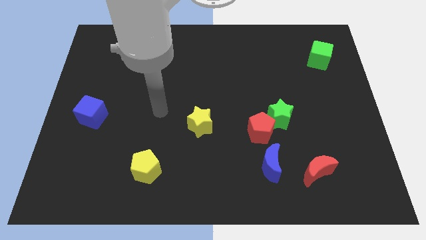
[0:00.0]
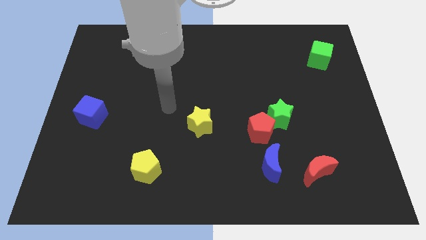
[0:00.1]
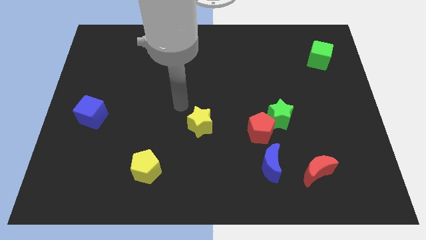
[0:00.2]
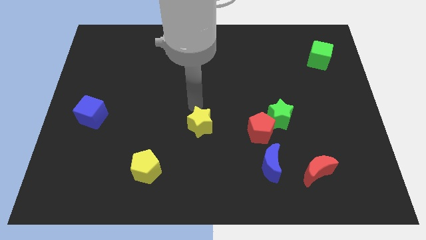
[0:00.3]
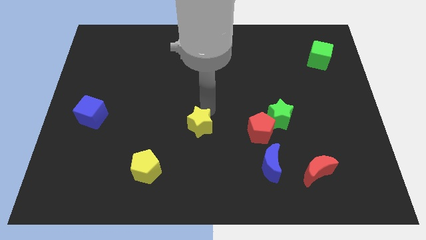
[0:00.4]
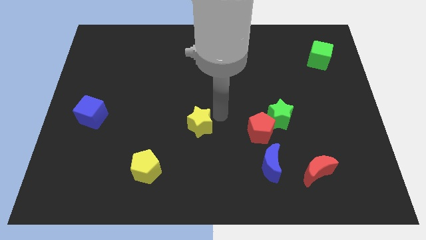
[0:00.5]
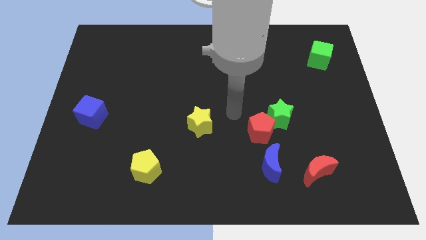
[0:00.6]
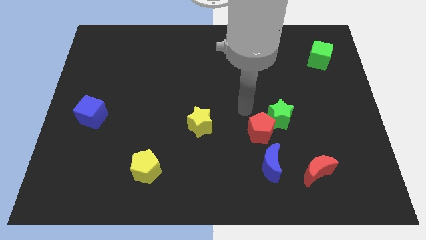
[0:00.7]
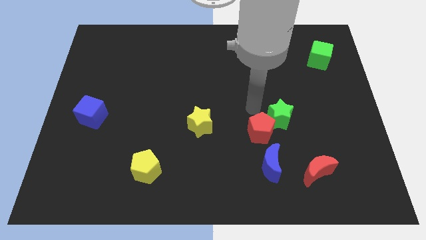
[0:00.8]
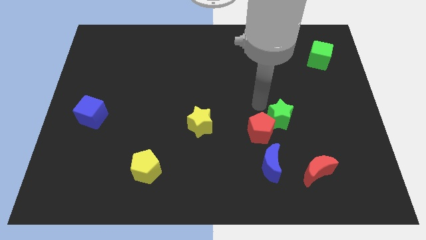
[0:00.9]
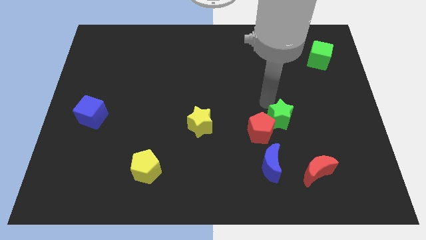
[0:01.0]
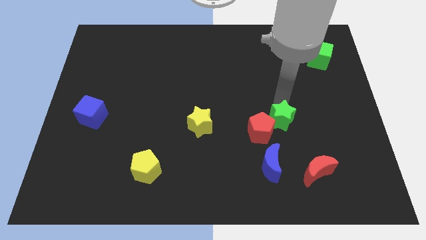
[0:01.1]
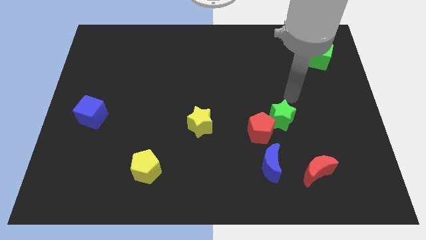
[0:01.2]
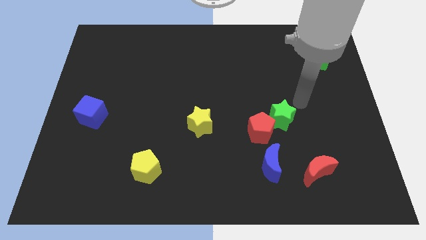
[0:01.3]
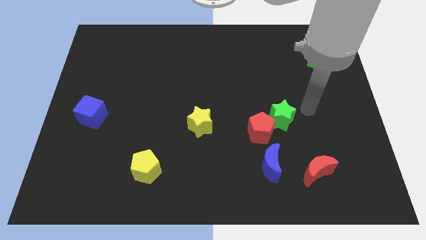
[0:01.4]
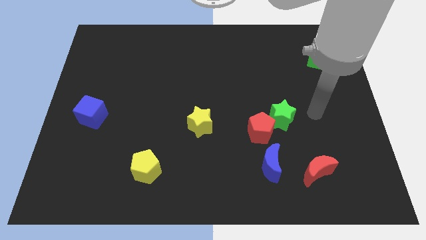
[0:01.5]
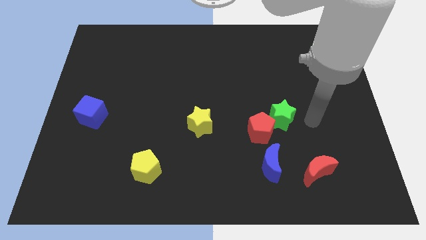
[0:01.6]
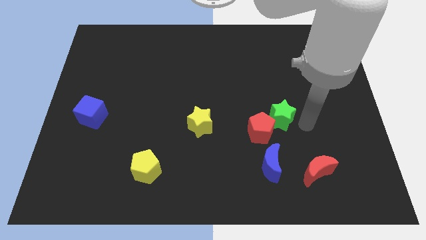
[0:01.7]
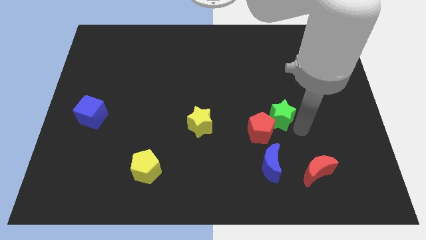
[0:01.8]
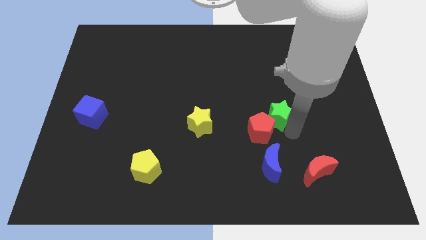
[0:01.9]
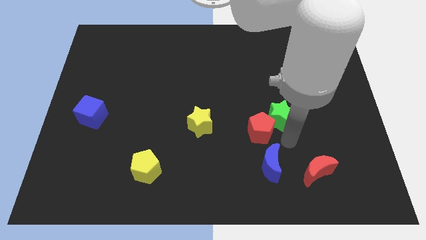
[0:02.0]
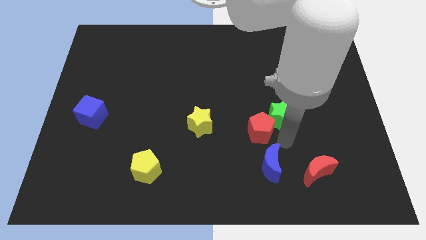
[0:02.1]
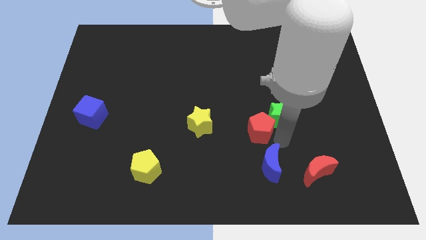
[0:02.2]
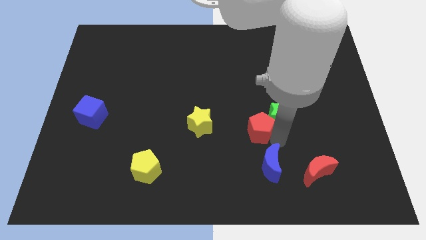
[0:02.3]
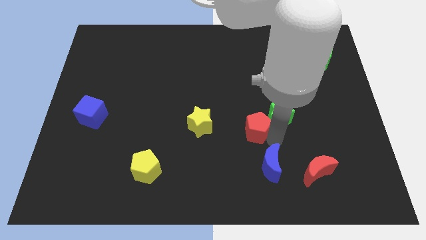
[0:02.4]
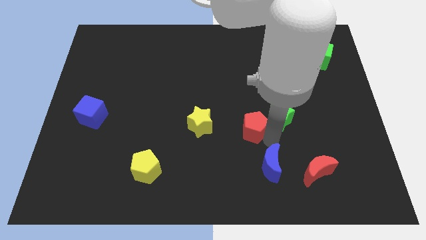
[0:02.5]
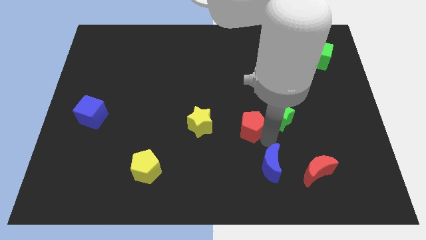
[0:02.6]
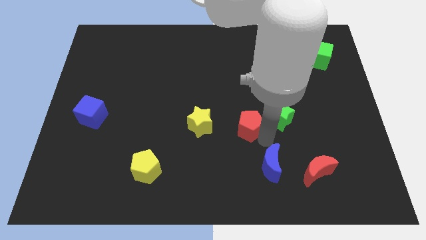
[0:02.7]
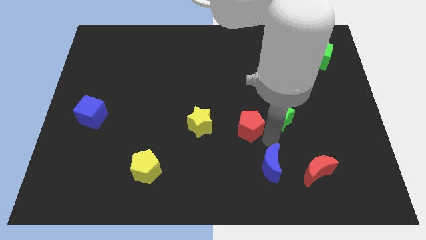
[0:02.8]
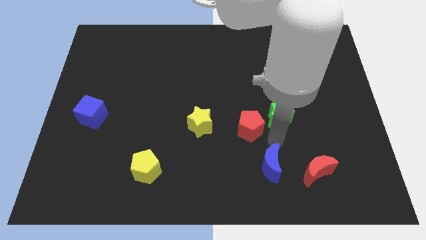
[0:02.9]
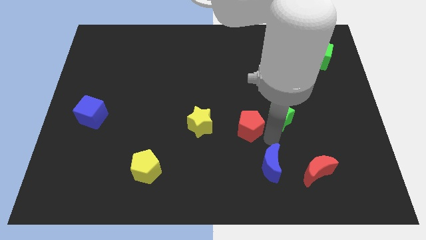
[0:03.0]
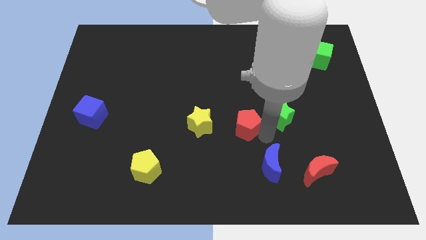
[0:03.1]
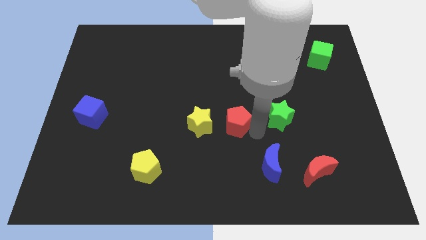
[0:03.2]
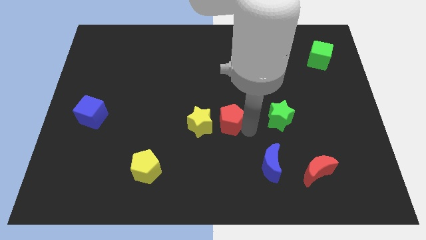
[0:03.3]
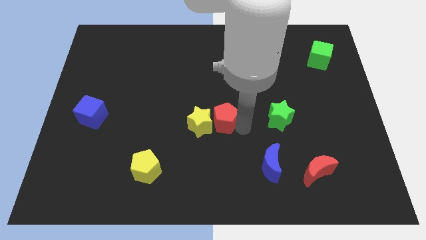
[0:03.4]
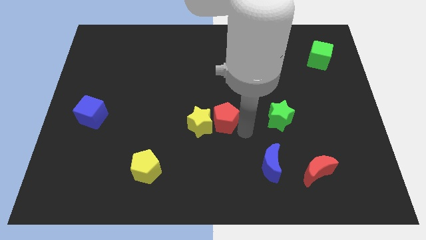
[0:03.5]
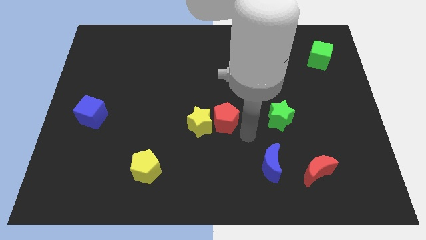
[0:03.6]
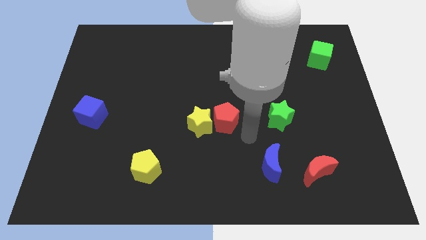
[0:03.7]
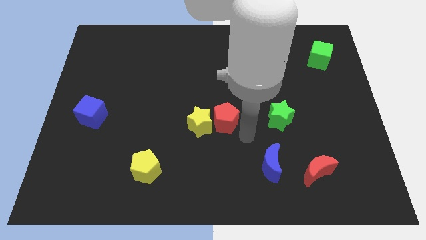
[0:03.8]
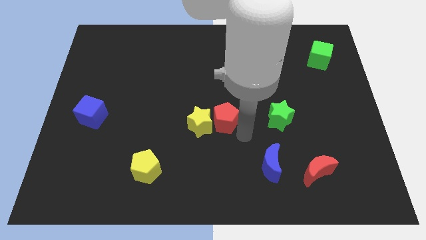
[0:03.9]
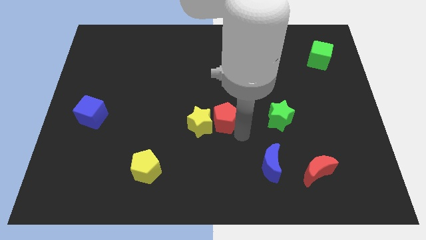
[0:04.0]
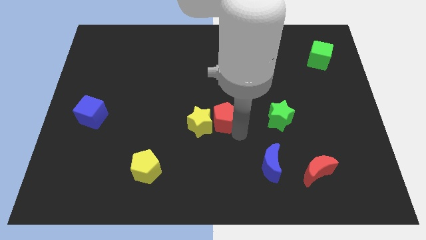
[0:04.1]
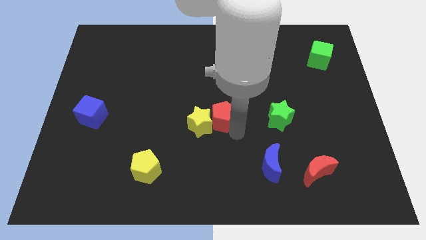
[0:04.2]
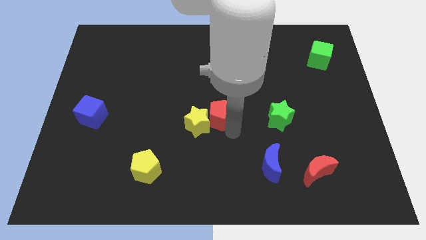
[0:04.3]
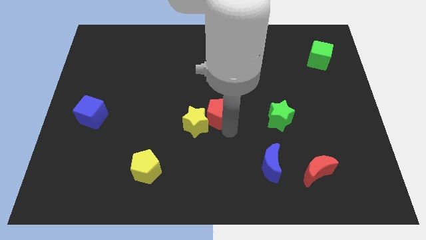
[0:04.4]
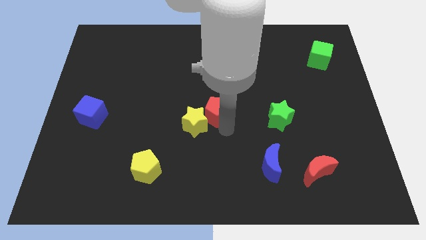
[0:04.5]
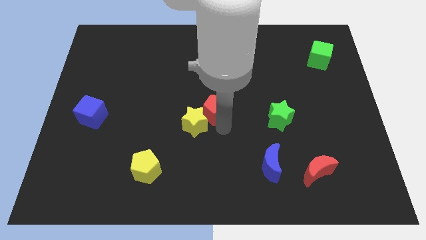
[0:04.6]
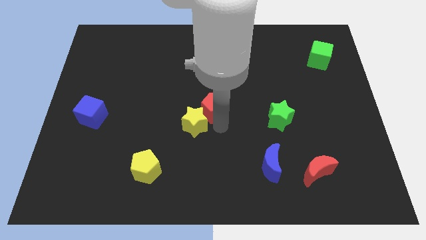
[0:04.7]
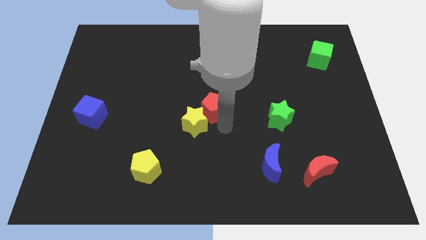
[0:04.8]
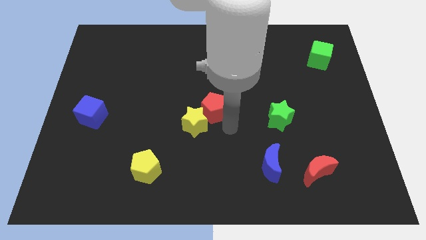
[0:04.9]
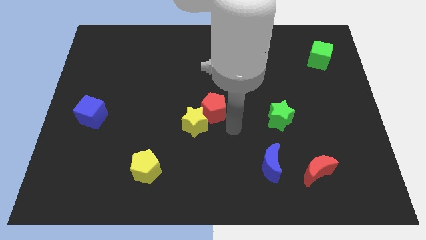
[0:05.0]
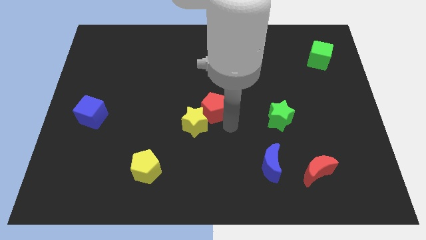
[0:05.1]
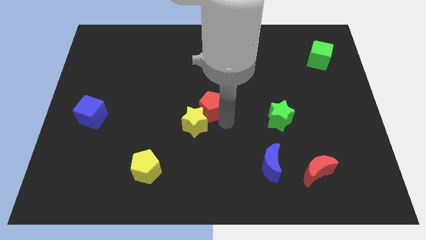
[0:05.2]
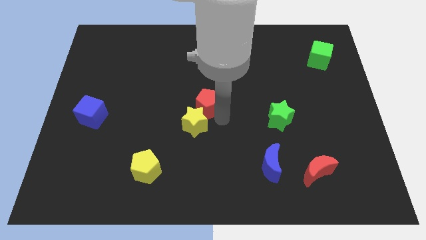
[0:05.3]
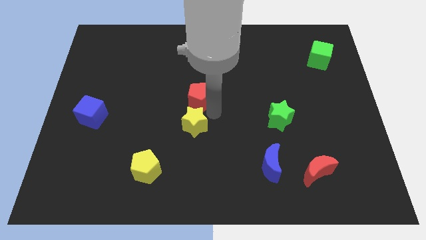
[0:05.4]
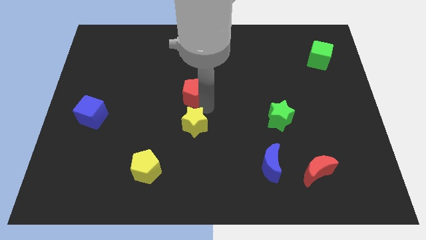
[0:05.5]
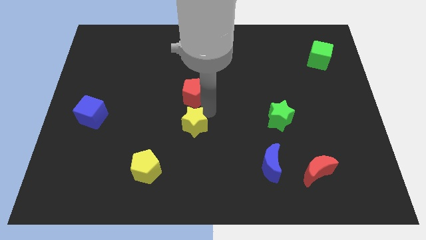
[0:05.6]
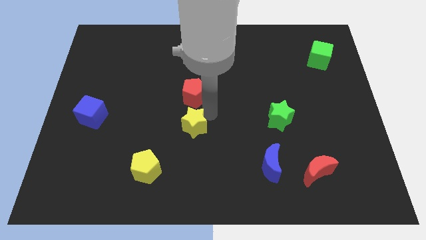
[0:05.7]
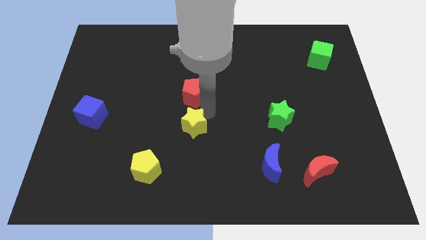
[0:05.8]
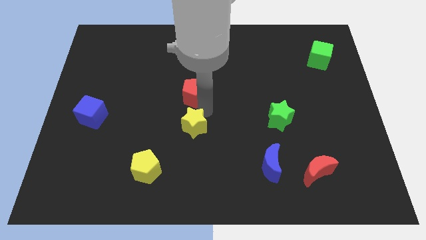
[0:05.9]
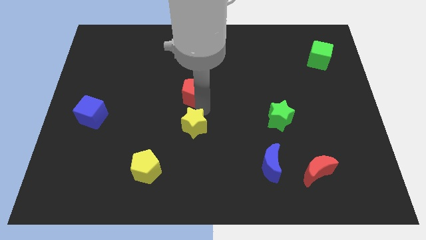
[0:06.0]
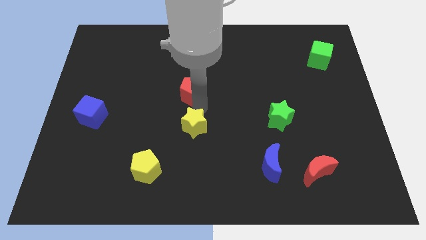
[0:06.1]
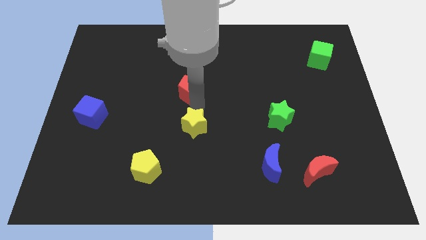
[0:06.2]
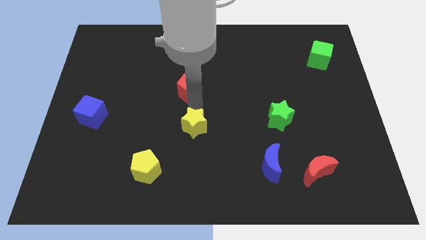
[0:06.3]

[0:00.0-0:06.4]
slide the red pentagon up and then left

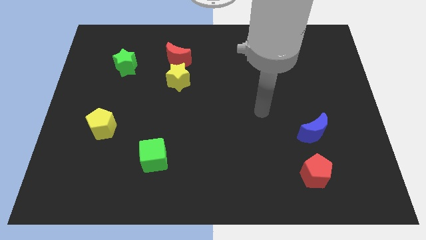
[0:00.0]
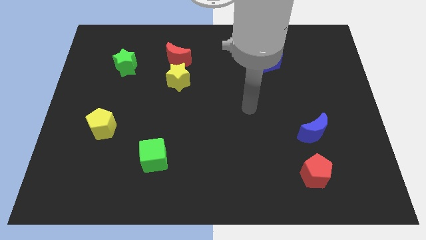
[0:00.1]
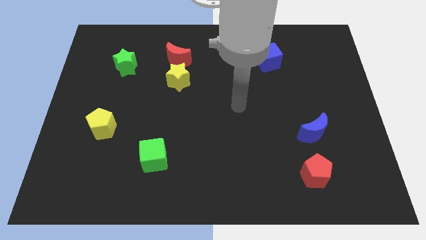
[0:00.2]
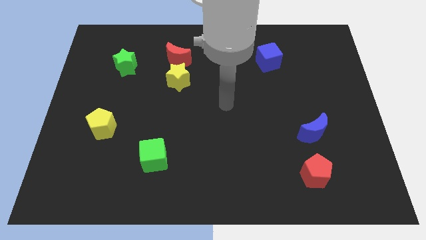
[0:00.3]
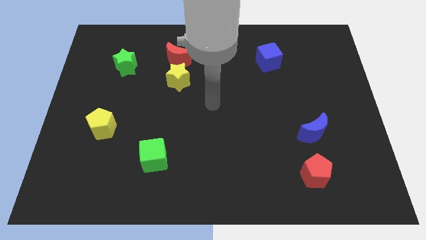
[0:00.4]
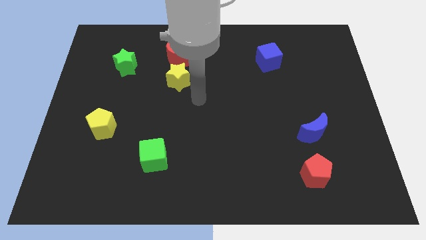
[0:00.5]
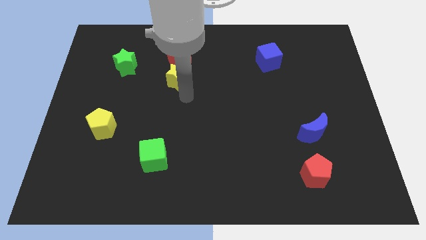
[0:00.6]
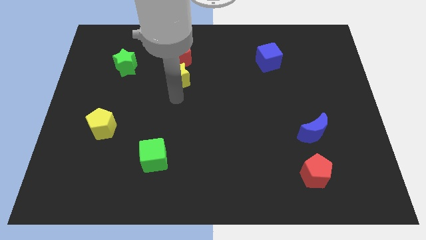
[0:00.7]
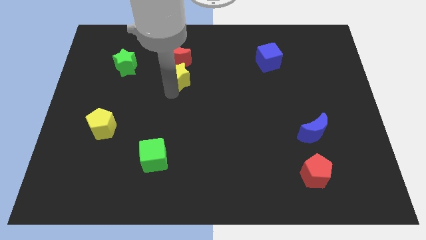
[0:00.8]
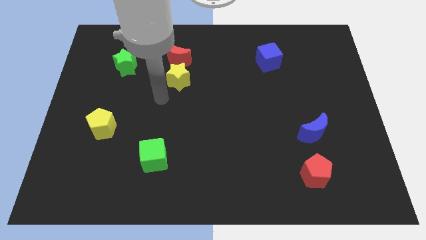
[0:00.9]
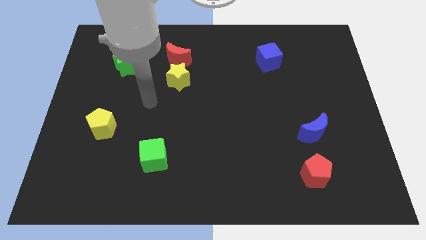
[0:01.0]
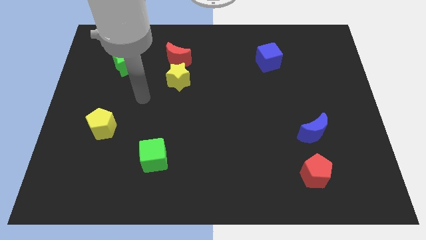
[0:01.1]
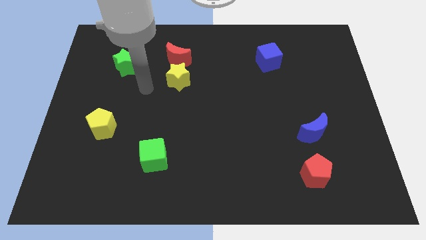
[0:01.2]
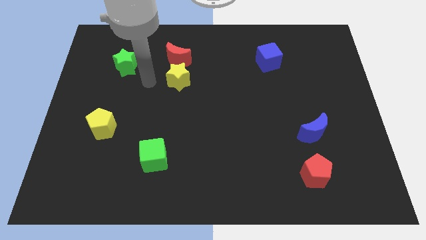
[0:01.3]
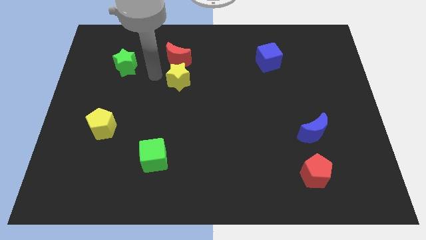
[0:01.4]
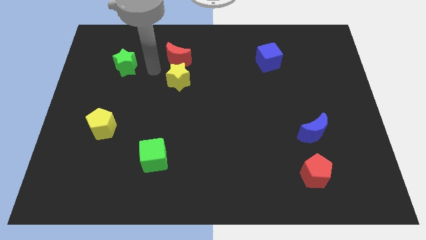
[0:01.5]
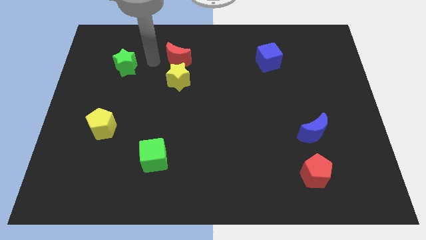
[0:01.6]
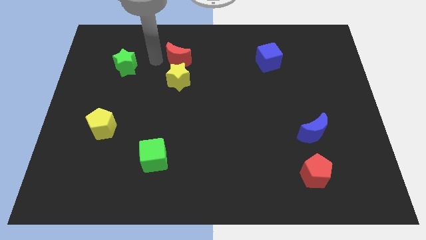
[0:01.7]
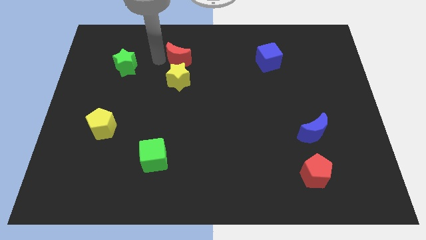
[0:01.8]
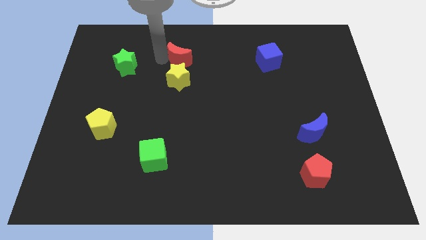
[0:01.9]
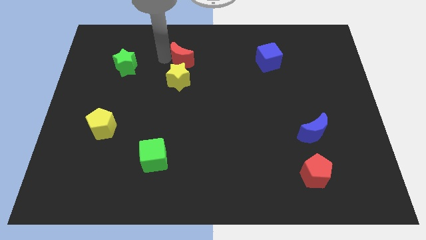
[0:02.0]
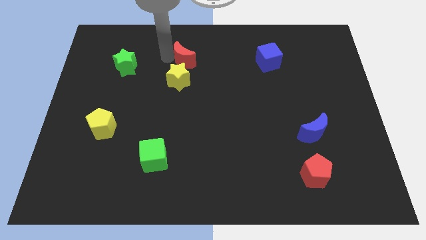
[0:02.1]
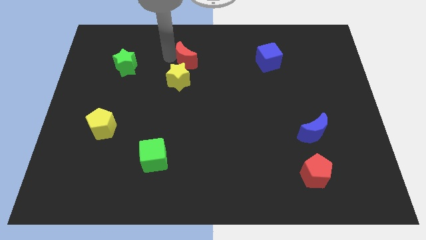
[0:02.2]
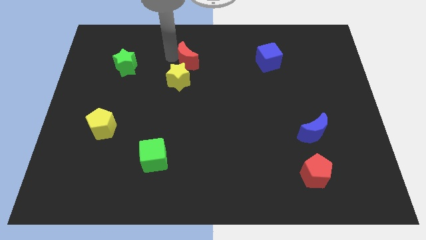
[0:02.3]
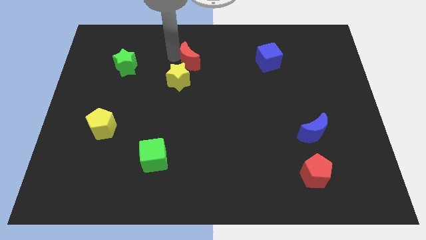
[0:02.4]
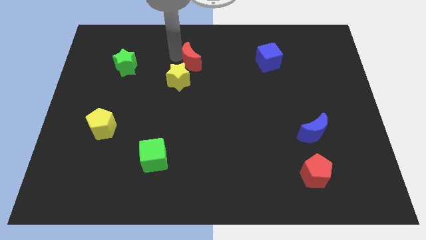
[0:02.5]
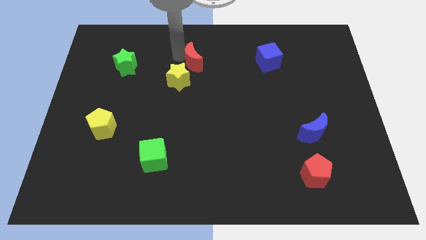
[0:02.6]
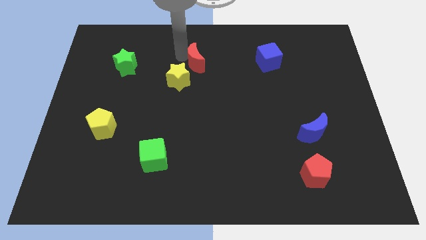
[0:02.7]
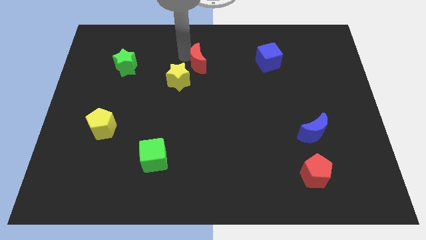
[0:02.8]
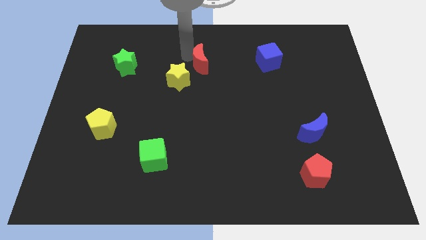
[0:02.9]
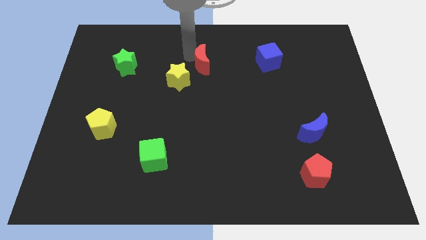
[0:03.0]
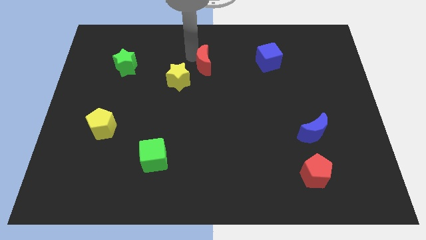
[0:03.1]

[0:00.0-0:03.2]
move the red moon slightly right
